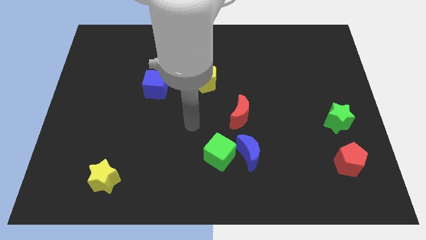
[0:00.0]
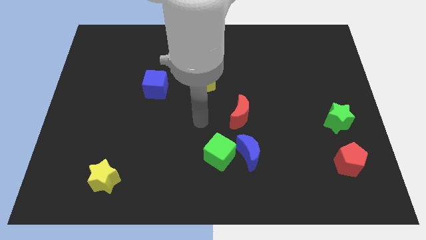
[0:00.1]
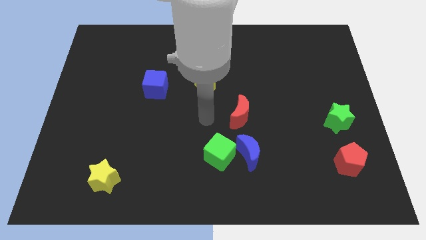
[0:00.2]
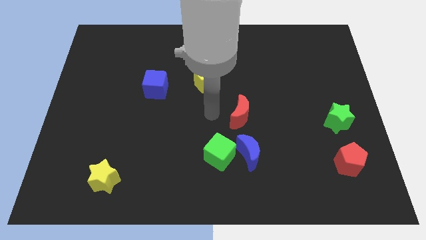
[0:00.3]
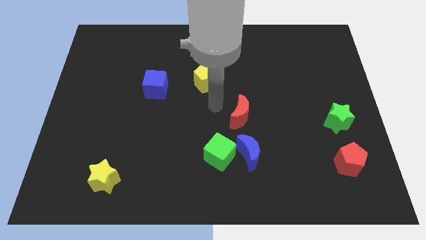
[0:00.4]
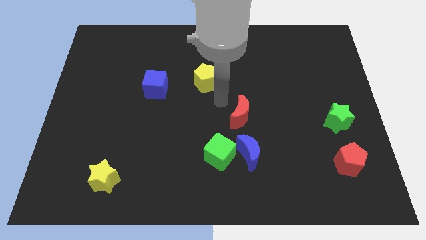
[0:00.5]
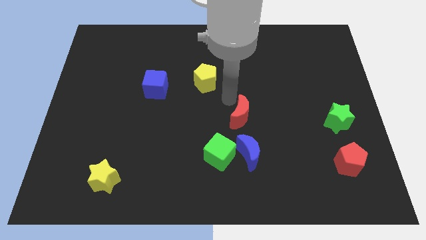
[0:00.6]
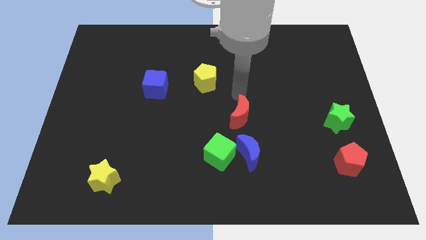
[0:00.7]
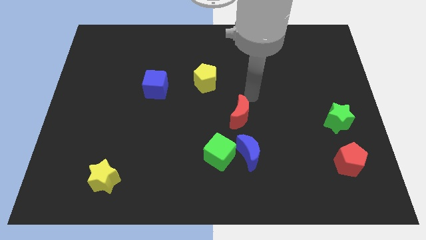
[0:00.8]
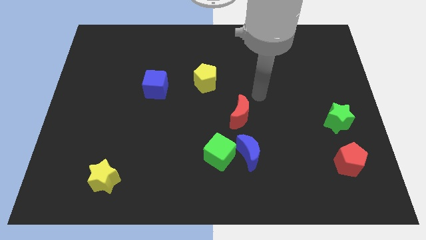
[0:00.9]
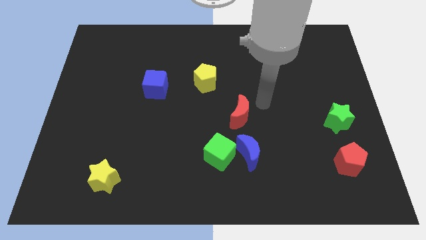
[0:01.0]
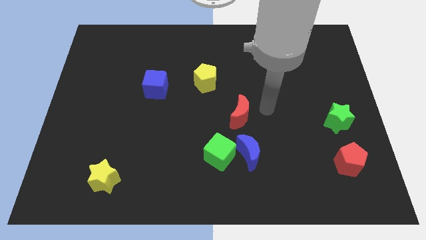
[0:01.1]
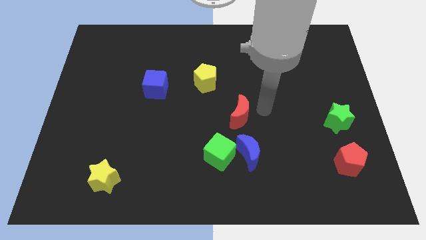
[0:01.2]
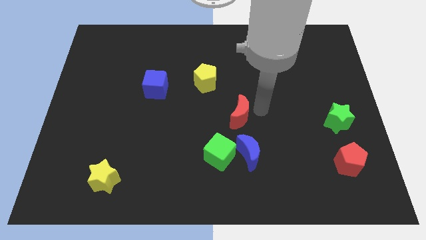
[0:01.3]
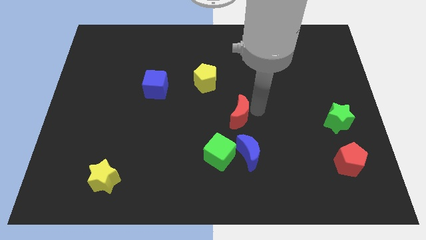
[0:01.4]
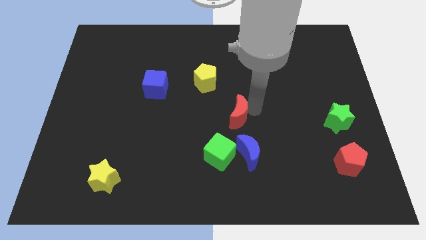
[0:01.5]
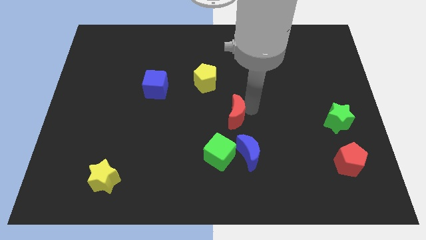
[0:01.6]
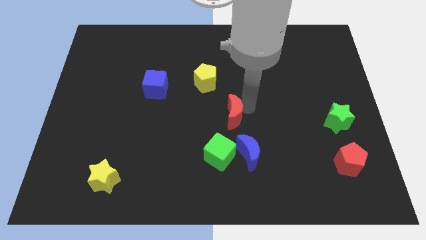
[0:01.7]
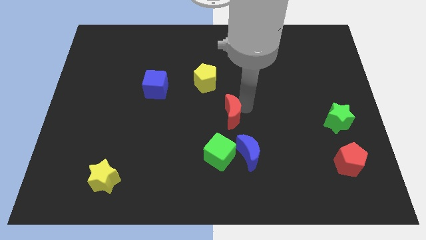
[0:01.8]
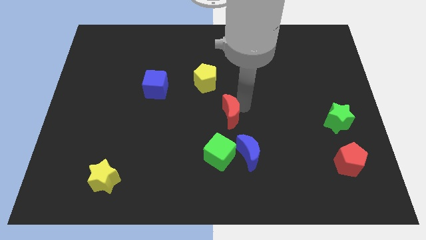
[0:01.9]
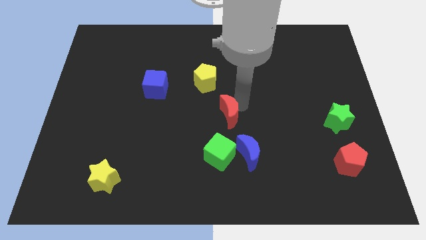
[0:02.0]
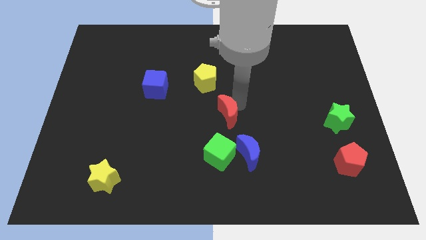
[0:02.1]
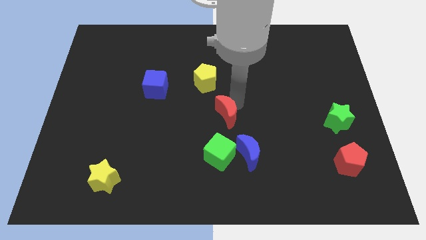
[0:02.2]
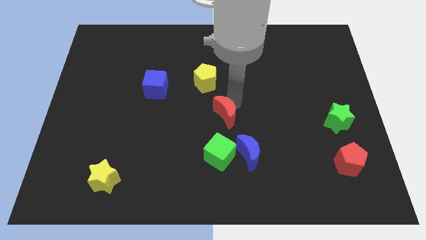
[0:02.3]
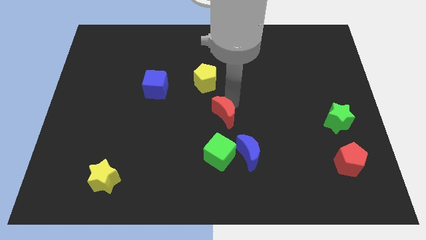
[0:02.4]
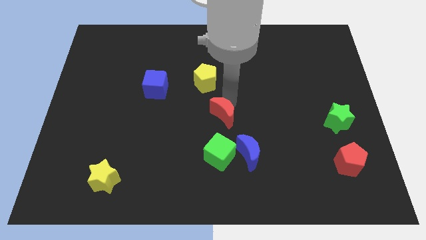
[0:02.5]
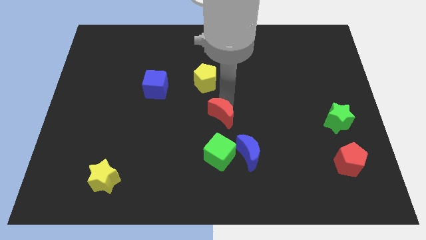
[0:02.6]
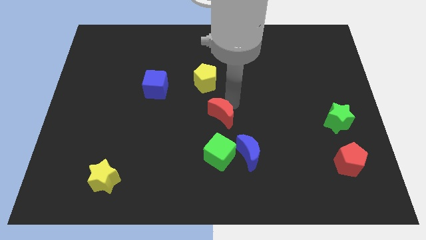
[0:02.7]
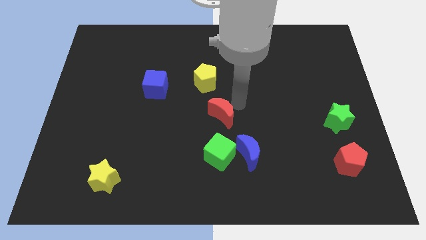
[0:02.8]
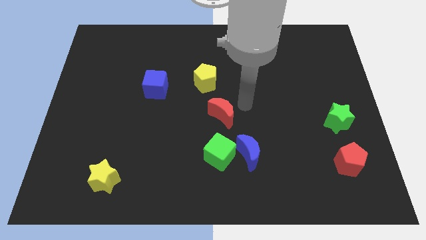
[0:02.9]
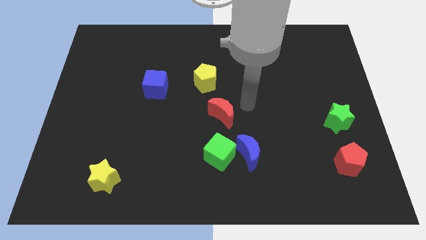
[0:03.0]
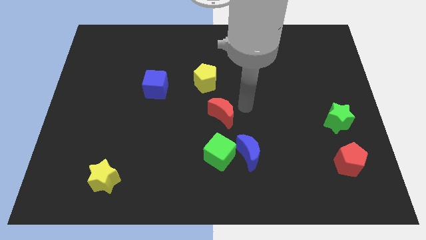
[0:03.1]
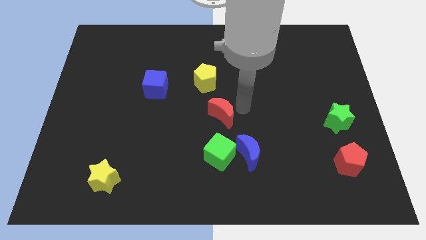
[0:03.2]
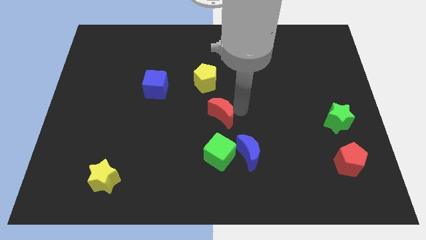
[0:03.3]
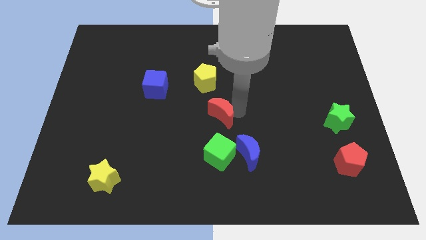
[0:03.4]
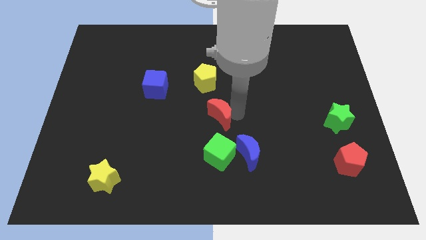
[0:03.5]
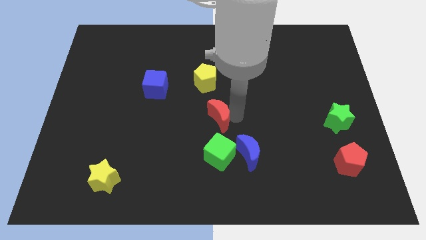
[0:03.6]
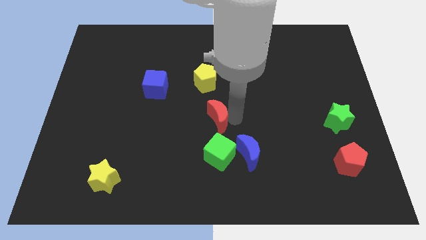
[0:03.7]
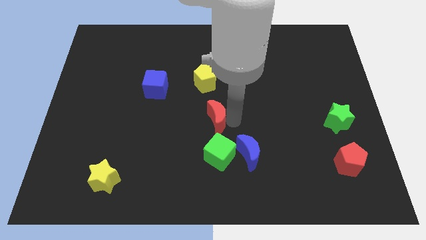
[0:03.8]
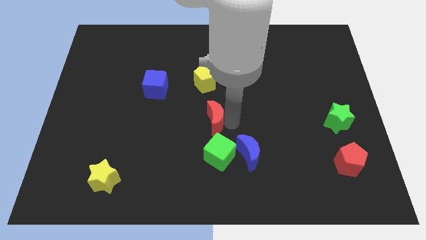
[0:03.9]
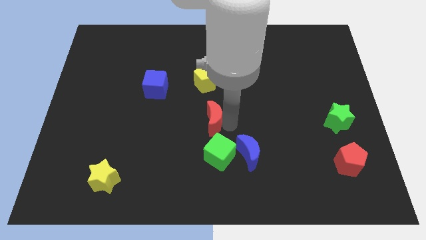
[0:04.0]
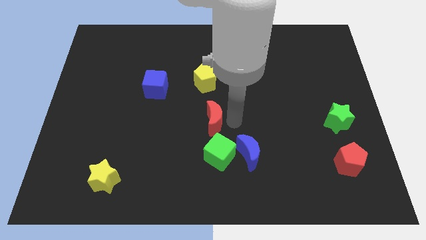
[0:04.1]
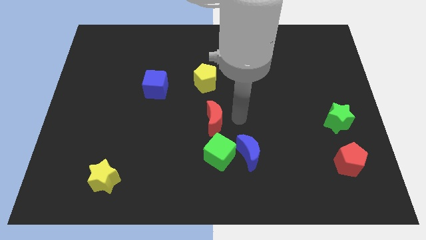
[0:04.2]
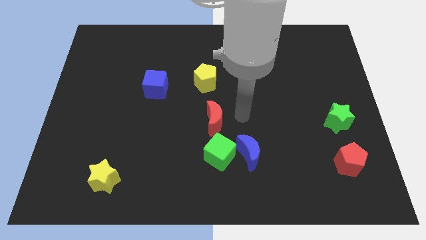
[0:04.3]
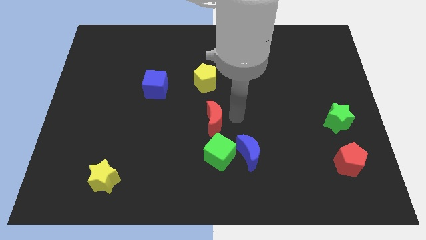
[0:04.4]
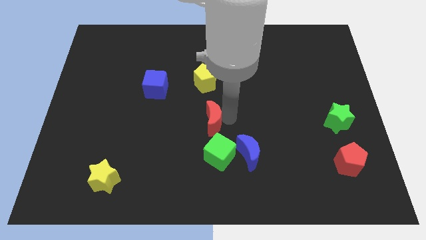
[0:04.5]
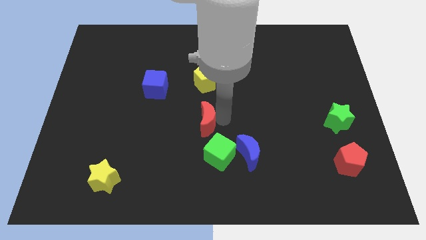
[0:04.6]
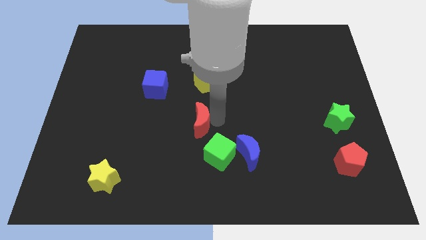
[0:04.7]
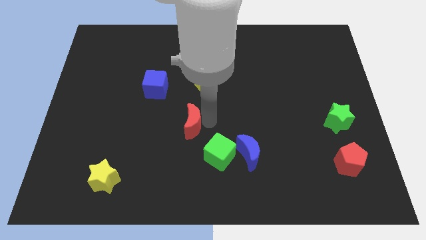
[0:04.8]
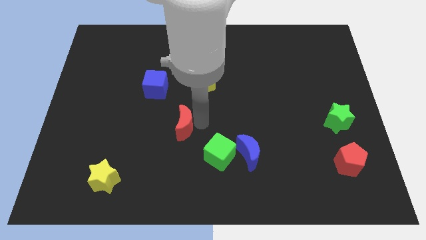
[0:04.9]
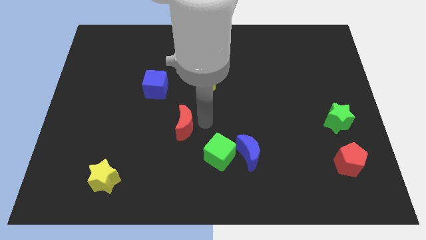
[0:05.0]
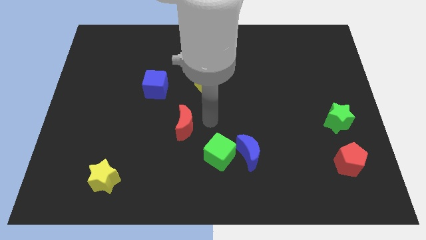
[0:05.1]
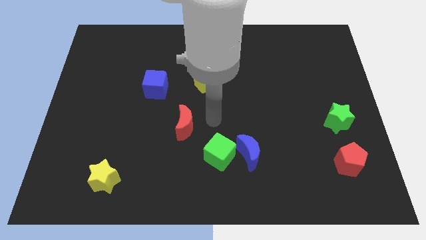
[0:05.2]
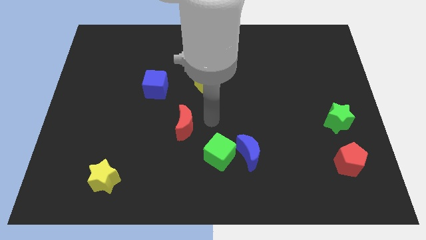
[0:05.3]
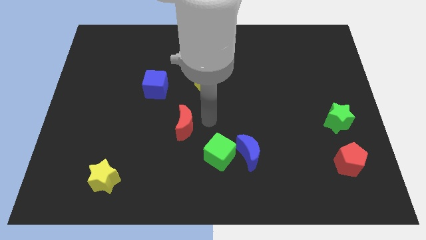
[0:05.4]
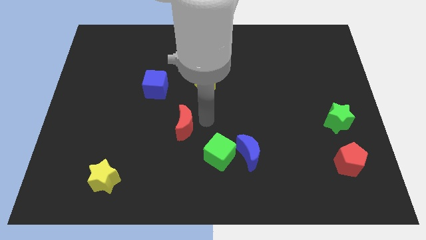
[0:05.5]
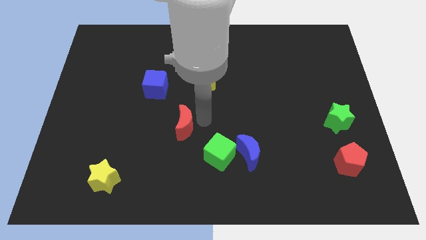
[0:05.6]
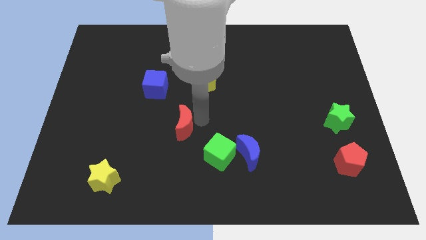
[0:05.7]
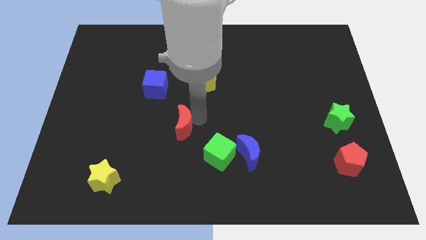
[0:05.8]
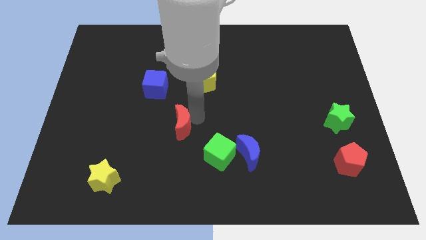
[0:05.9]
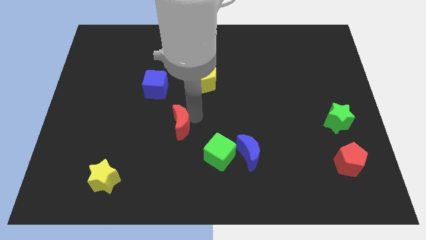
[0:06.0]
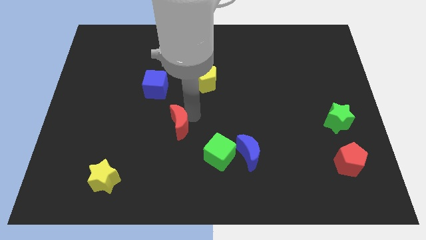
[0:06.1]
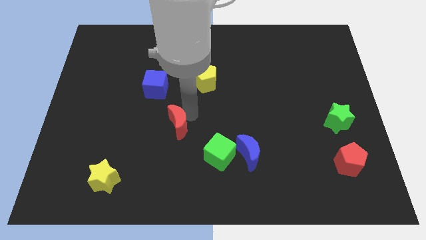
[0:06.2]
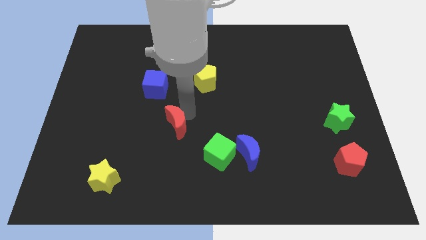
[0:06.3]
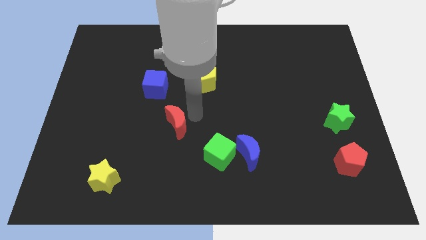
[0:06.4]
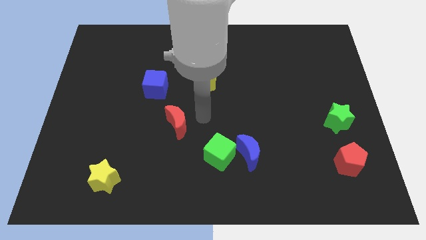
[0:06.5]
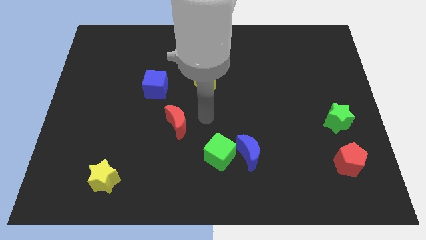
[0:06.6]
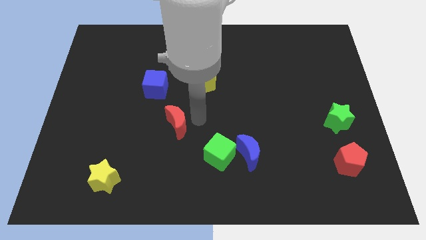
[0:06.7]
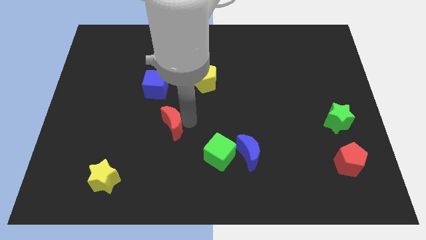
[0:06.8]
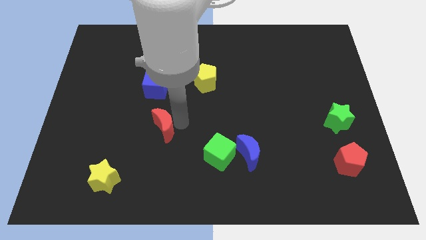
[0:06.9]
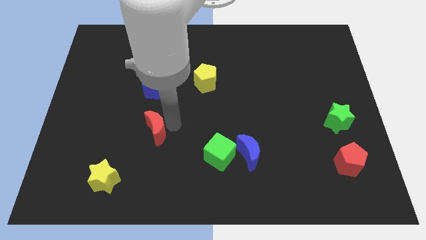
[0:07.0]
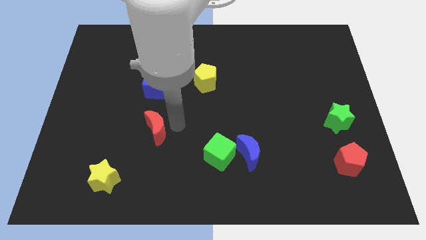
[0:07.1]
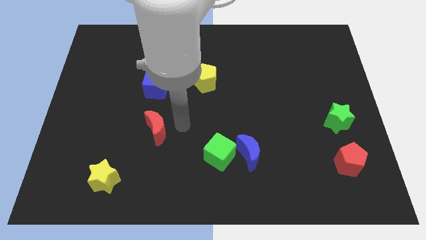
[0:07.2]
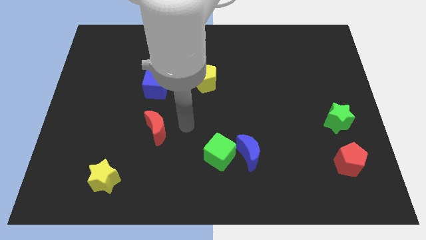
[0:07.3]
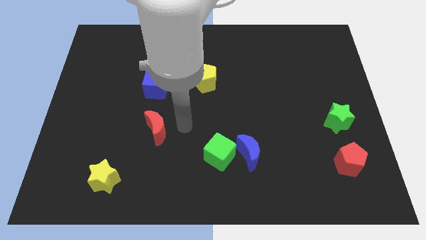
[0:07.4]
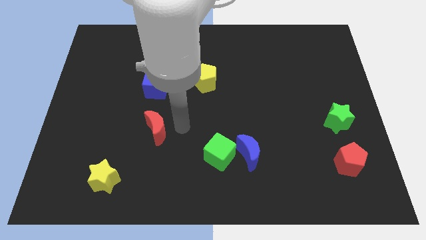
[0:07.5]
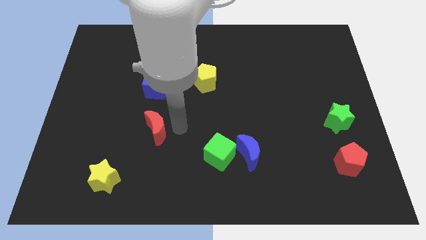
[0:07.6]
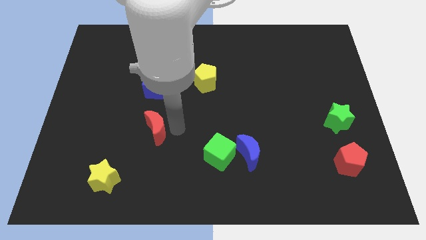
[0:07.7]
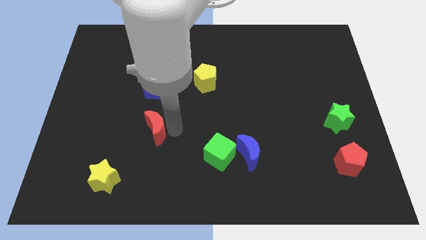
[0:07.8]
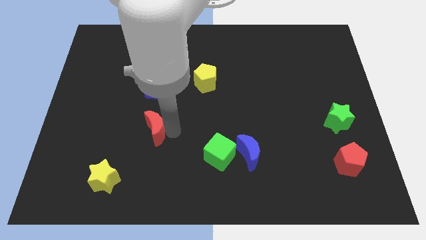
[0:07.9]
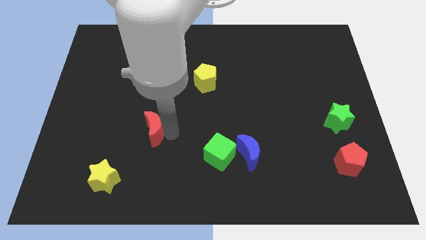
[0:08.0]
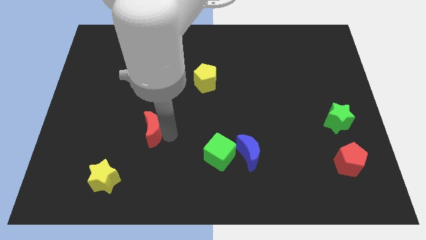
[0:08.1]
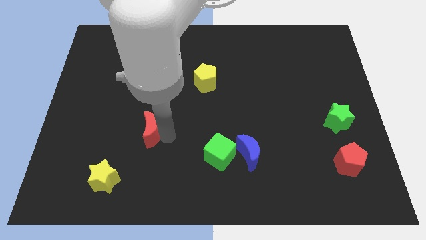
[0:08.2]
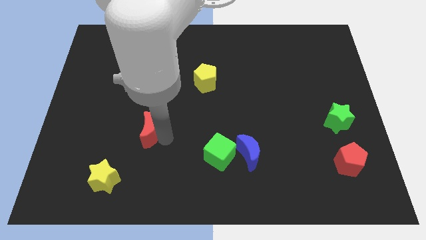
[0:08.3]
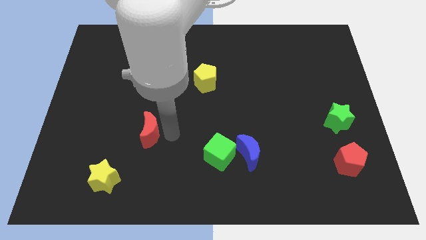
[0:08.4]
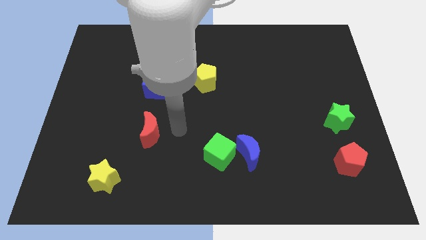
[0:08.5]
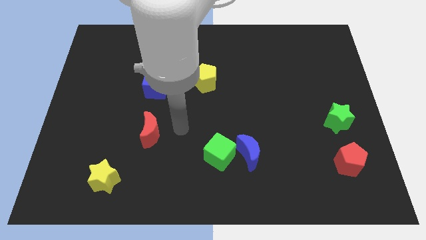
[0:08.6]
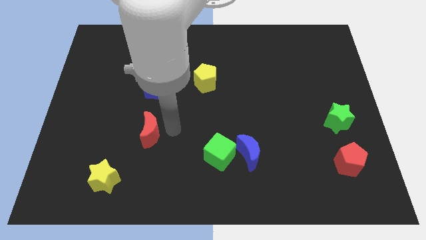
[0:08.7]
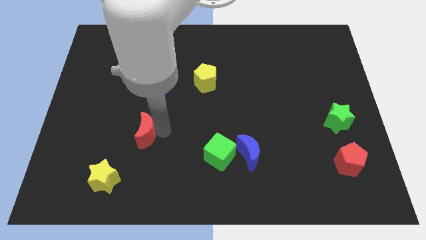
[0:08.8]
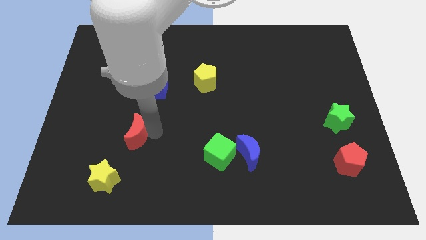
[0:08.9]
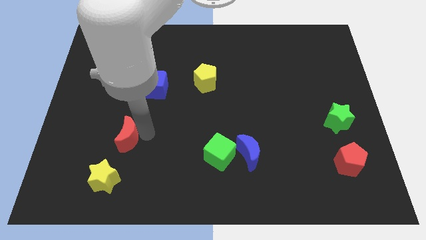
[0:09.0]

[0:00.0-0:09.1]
put the red moon to the top side of the yellow star
